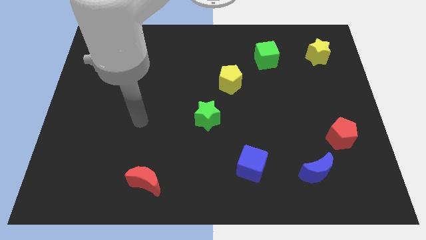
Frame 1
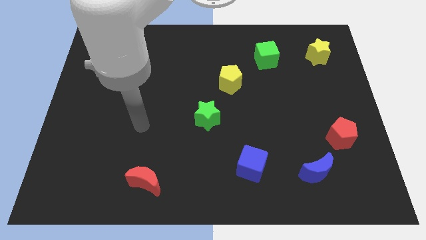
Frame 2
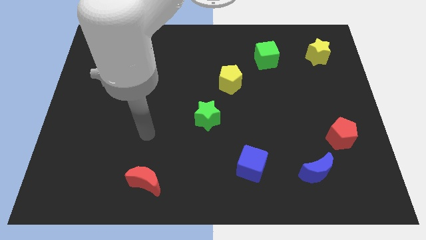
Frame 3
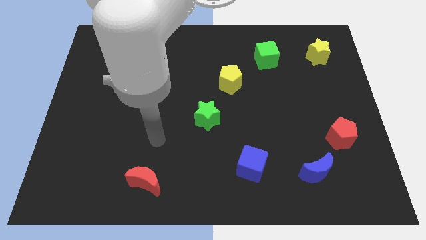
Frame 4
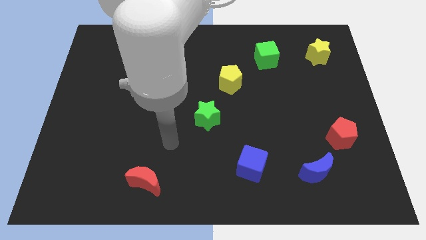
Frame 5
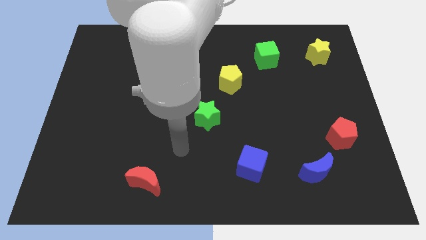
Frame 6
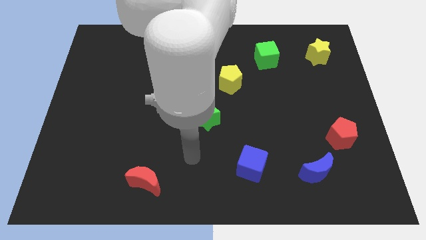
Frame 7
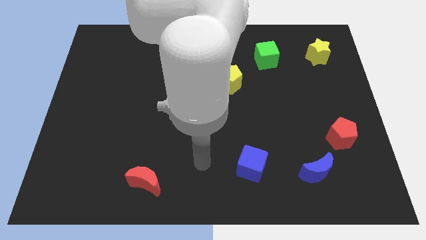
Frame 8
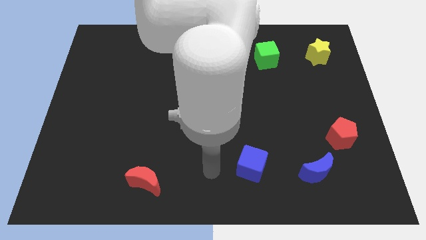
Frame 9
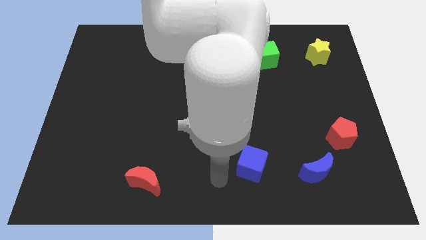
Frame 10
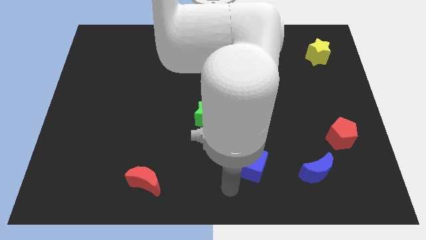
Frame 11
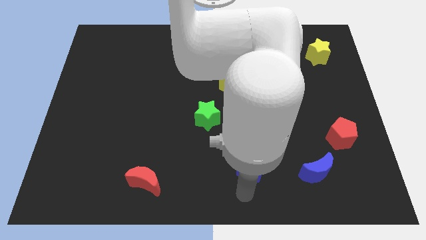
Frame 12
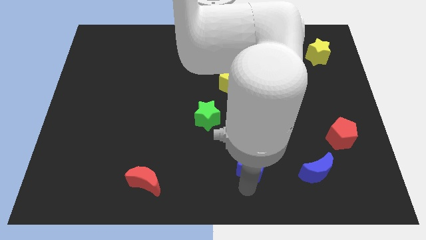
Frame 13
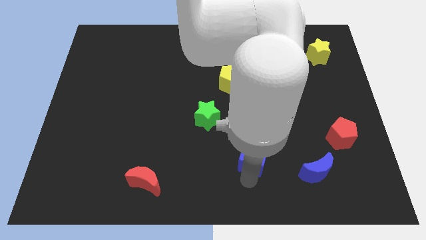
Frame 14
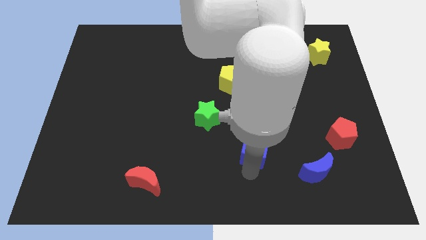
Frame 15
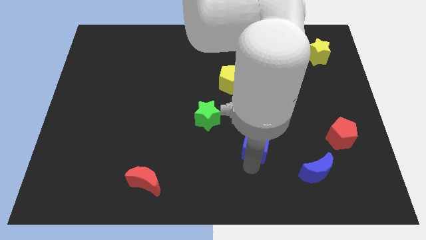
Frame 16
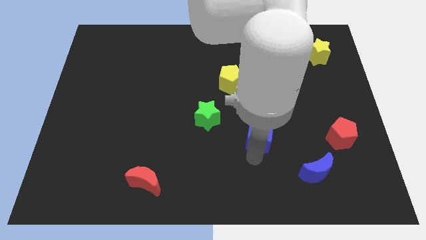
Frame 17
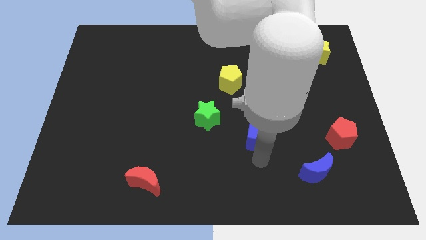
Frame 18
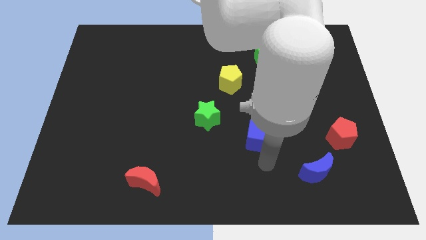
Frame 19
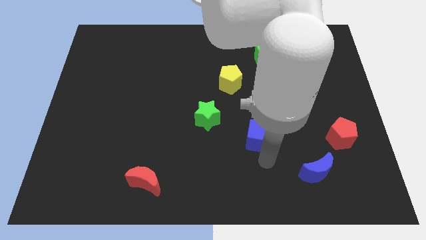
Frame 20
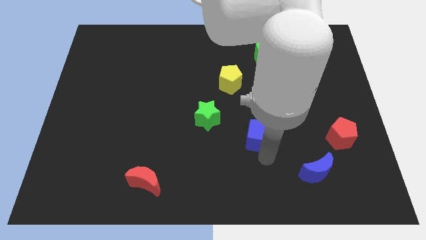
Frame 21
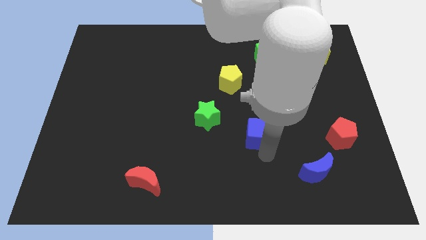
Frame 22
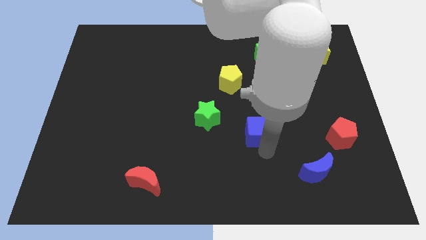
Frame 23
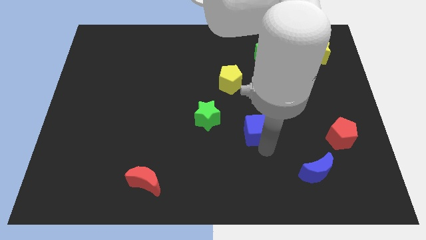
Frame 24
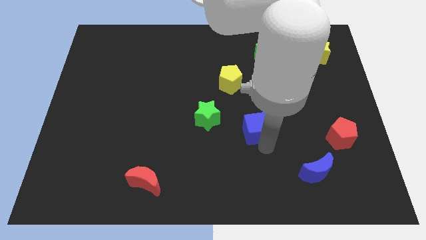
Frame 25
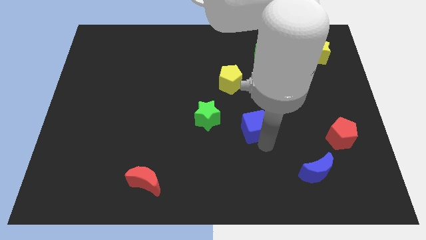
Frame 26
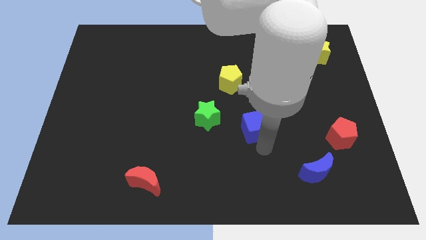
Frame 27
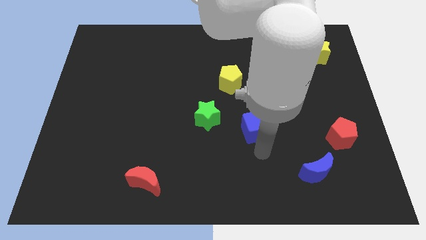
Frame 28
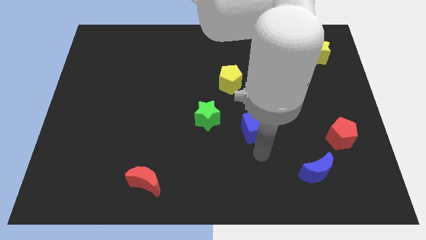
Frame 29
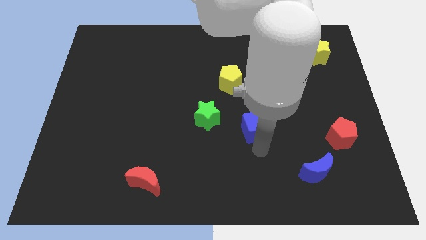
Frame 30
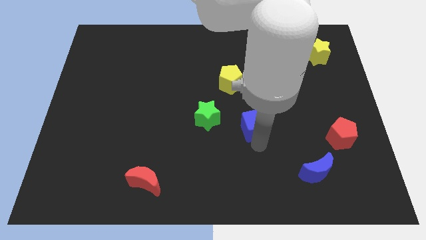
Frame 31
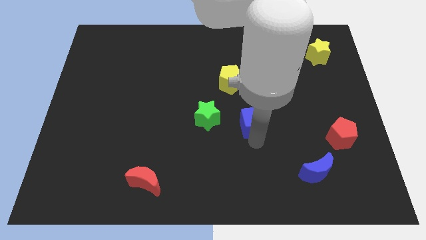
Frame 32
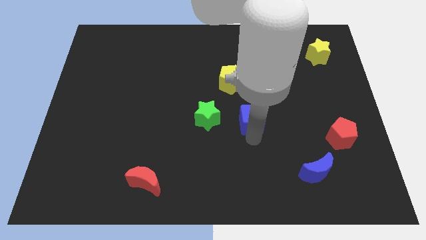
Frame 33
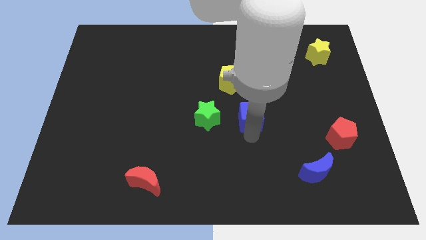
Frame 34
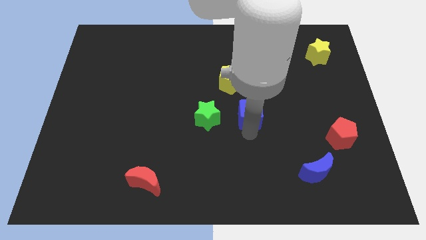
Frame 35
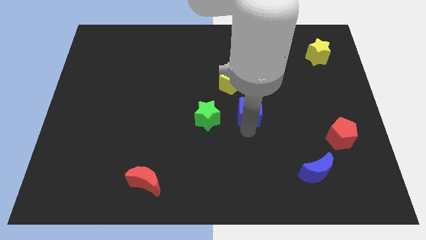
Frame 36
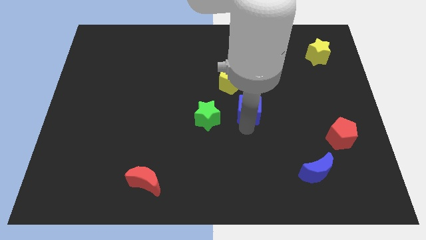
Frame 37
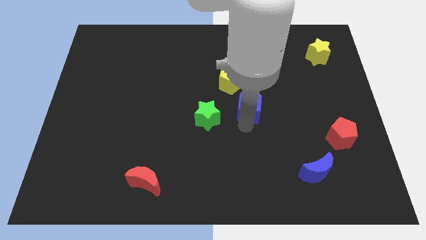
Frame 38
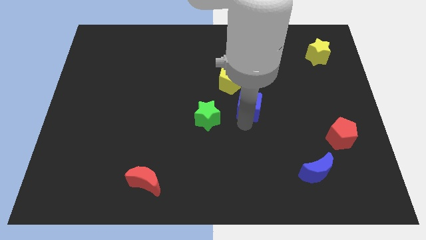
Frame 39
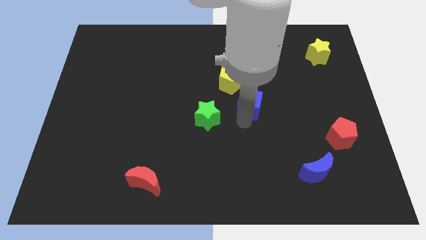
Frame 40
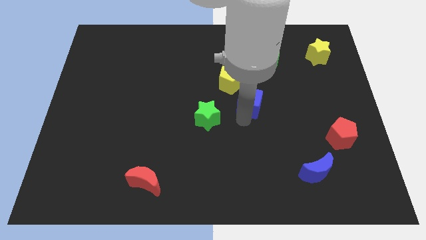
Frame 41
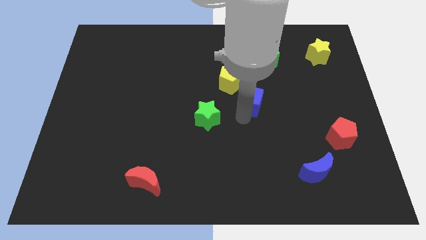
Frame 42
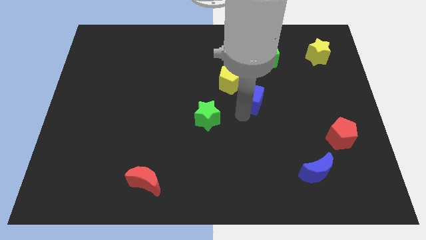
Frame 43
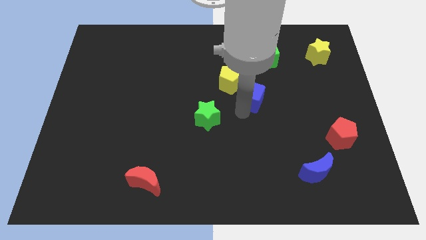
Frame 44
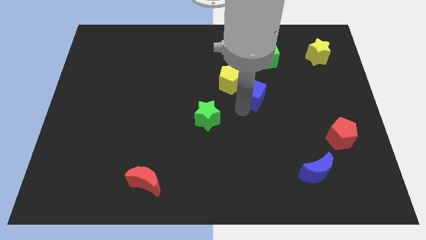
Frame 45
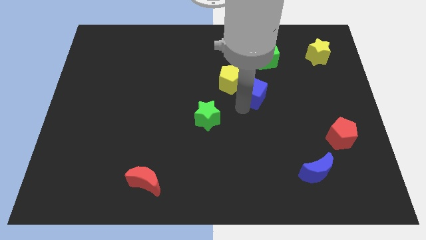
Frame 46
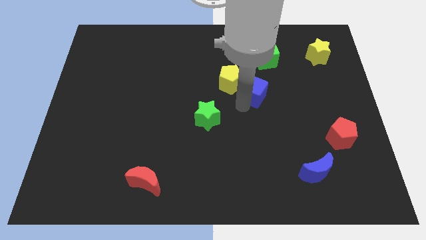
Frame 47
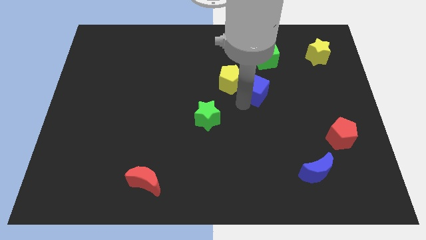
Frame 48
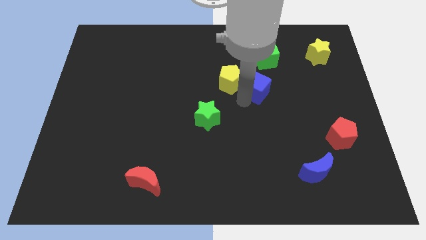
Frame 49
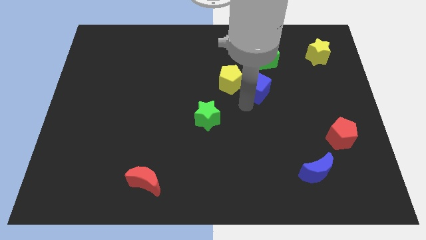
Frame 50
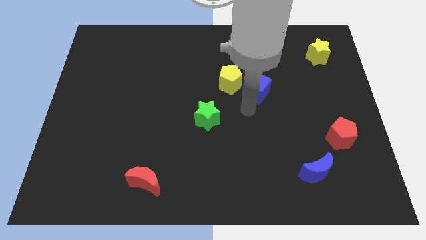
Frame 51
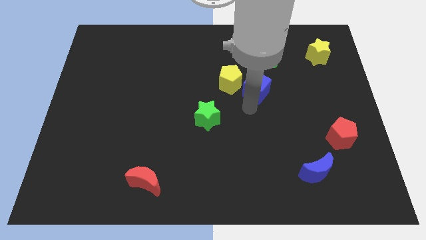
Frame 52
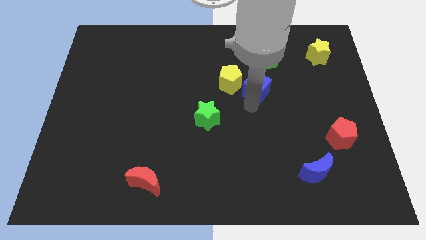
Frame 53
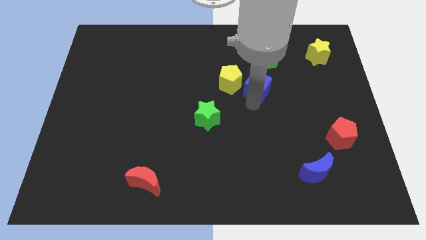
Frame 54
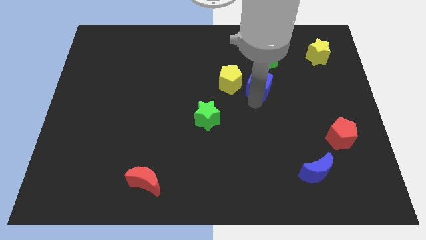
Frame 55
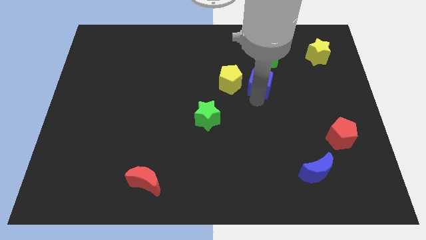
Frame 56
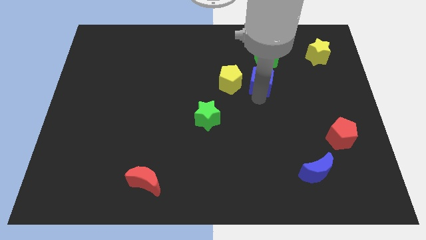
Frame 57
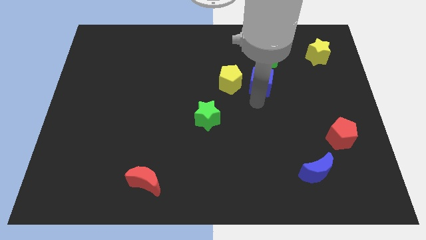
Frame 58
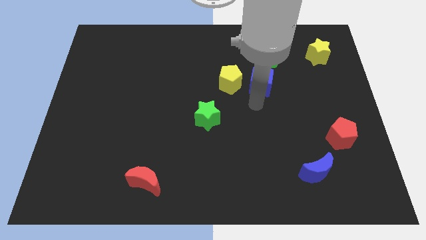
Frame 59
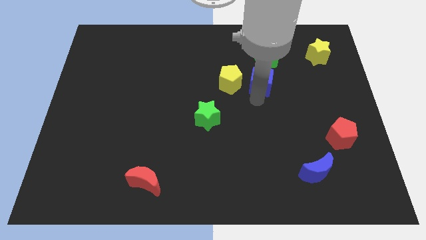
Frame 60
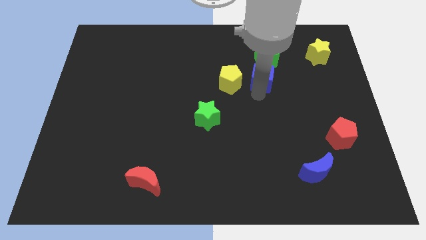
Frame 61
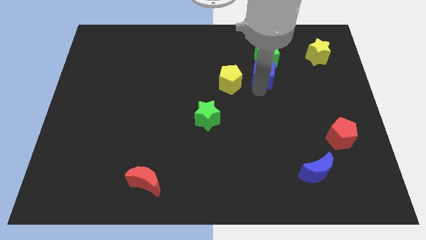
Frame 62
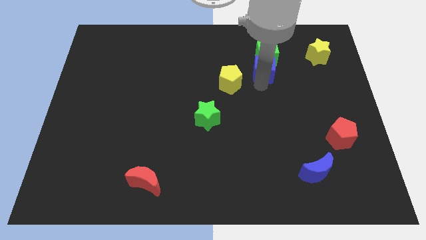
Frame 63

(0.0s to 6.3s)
move the blue cube towards the green cube
